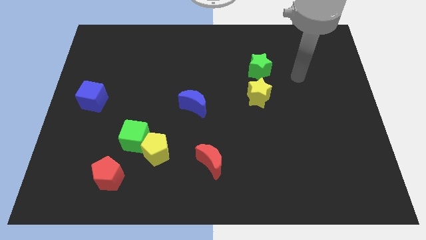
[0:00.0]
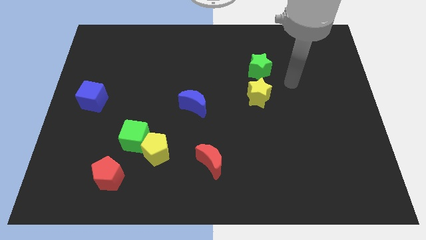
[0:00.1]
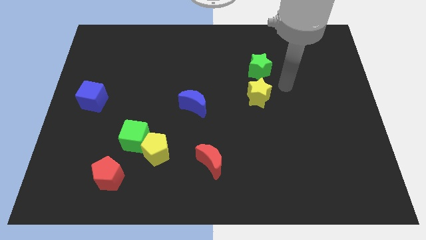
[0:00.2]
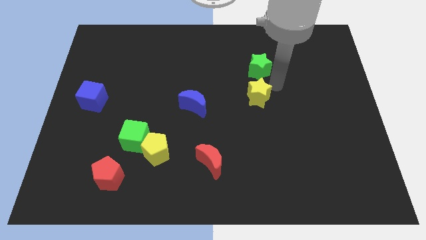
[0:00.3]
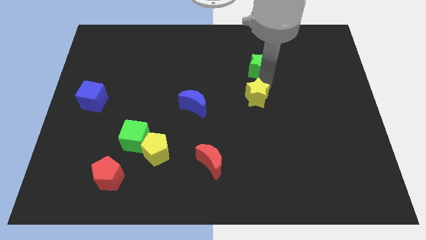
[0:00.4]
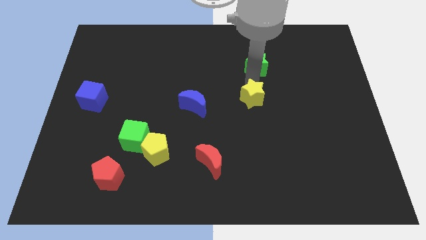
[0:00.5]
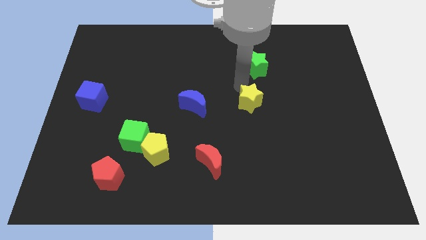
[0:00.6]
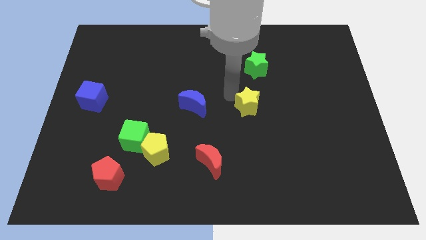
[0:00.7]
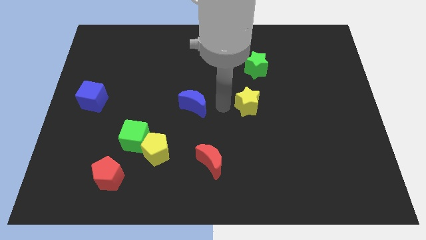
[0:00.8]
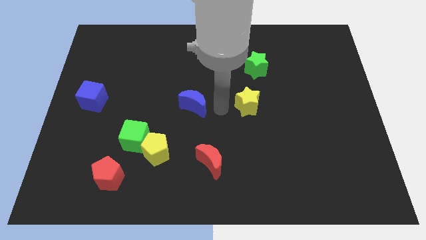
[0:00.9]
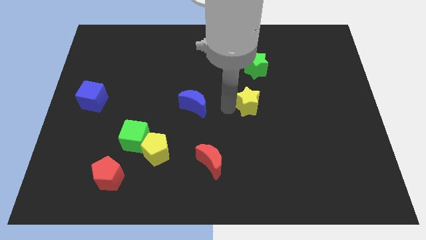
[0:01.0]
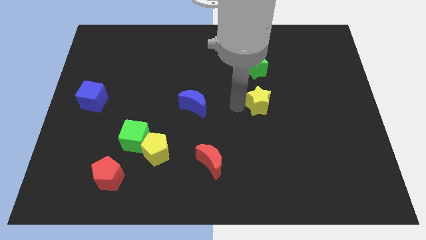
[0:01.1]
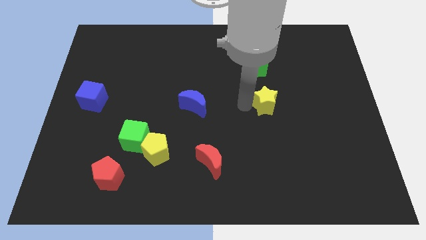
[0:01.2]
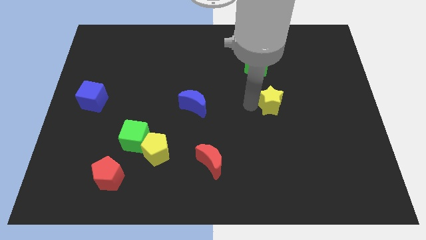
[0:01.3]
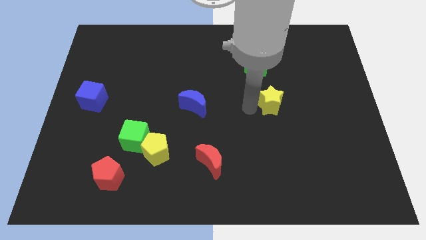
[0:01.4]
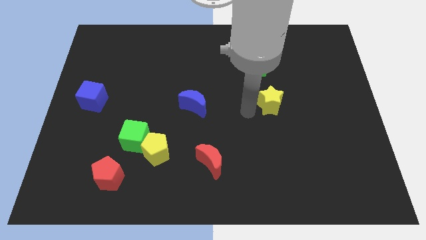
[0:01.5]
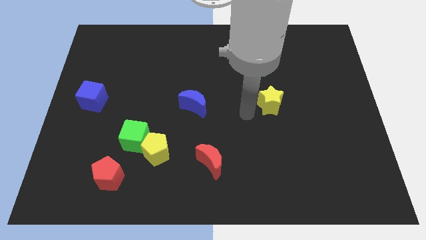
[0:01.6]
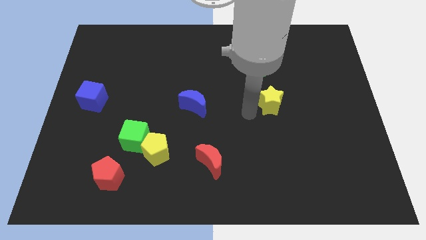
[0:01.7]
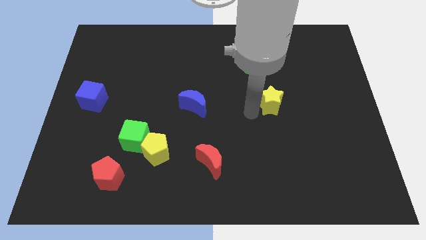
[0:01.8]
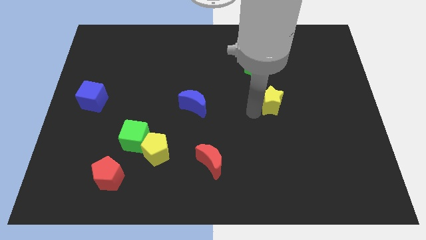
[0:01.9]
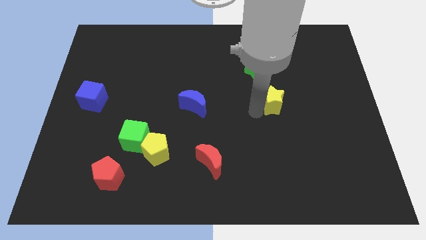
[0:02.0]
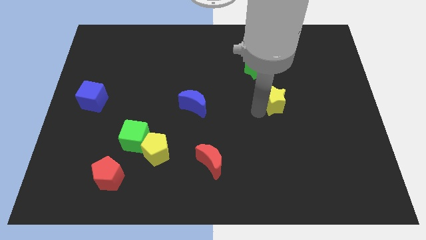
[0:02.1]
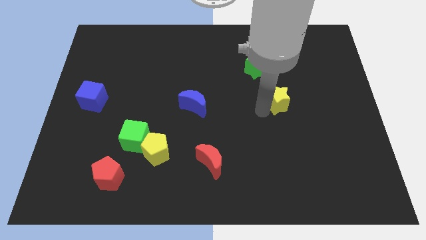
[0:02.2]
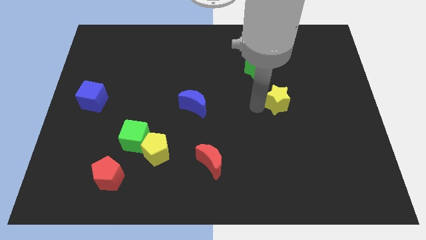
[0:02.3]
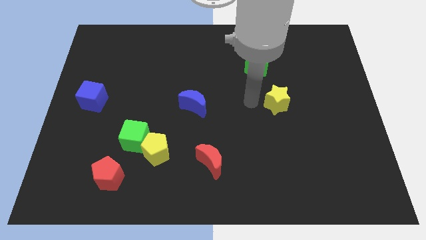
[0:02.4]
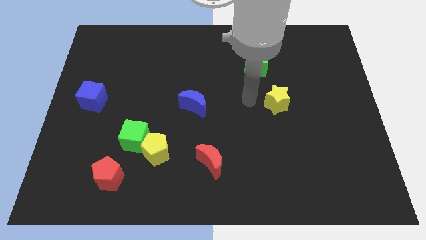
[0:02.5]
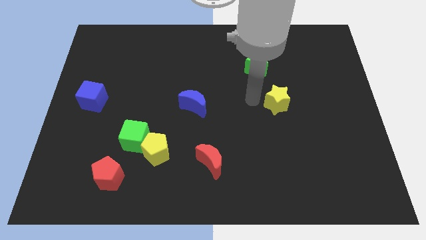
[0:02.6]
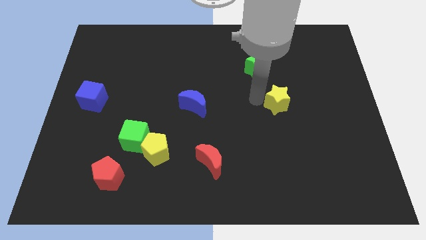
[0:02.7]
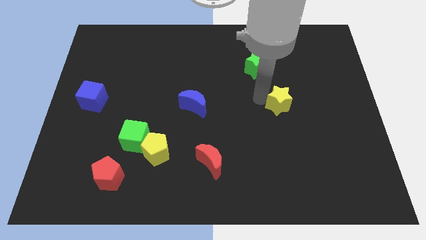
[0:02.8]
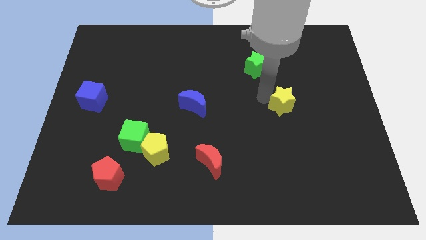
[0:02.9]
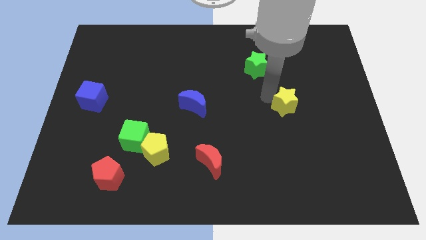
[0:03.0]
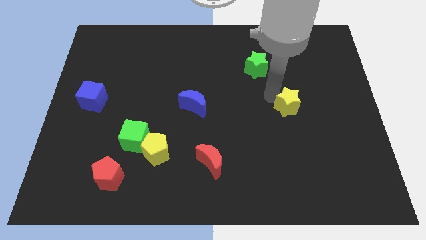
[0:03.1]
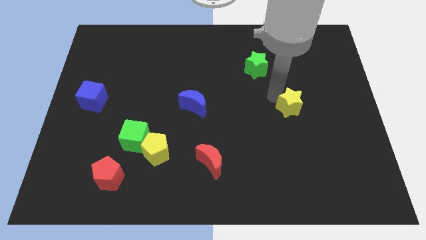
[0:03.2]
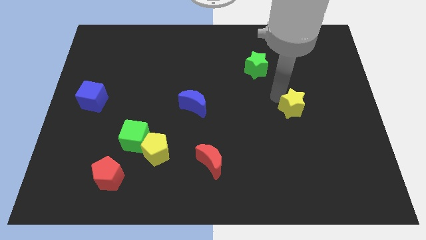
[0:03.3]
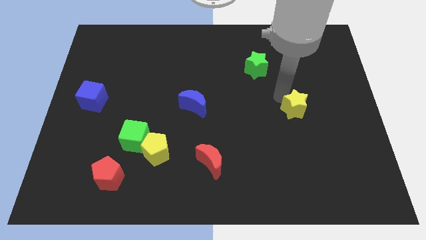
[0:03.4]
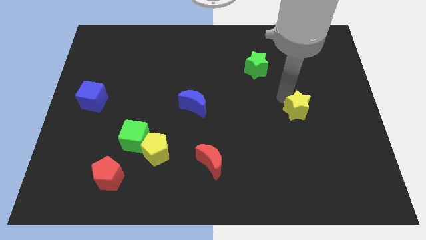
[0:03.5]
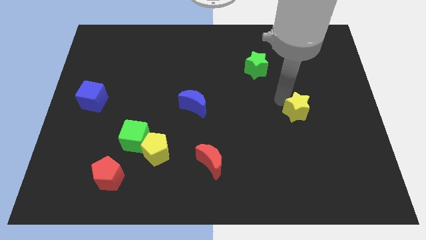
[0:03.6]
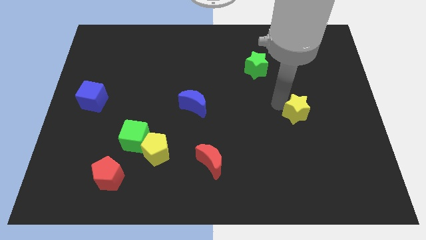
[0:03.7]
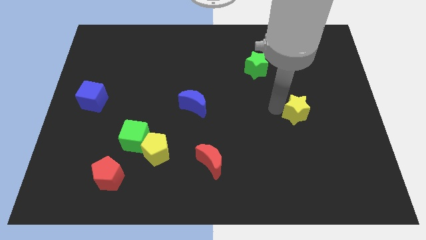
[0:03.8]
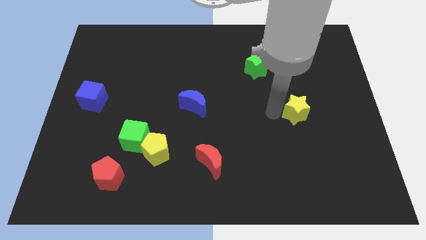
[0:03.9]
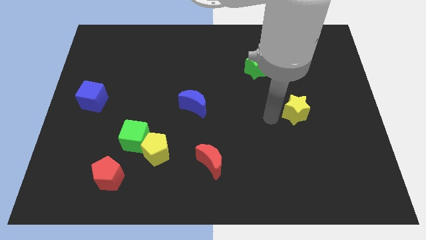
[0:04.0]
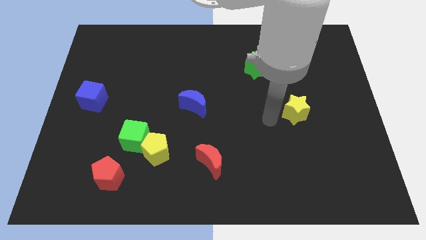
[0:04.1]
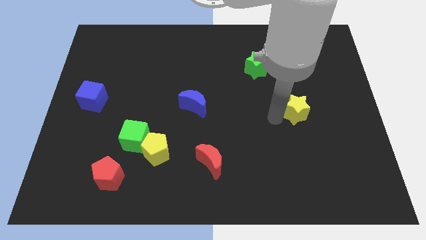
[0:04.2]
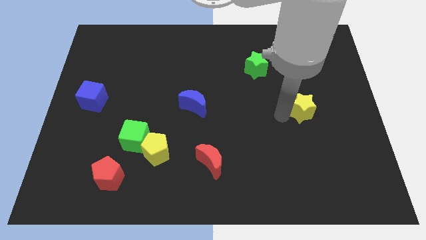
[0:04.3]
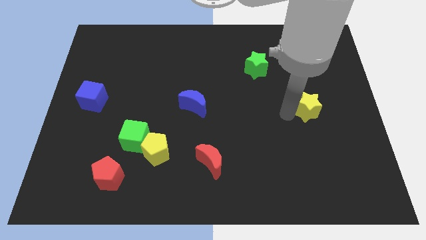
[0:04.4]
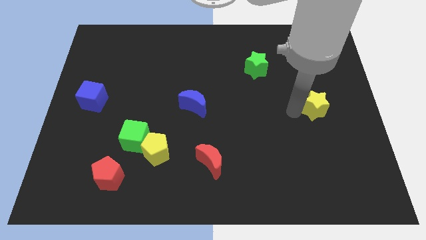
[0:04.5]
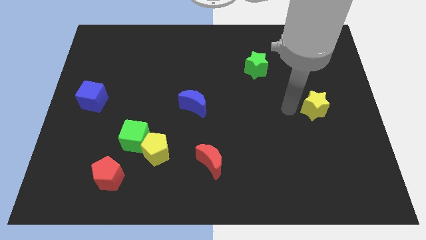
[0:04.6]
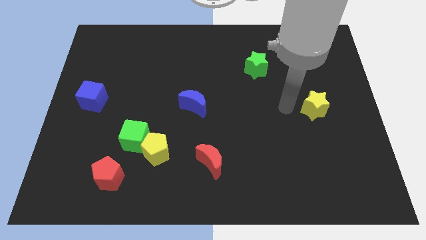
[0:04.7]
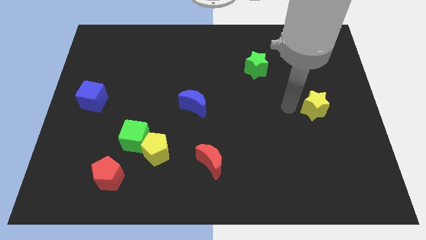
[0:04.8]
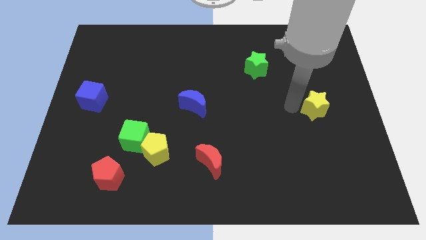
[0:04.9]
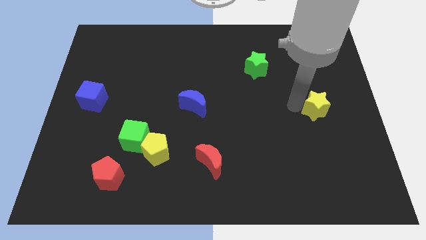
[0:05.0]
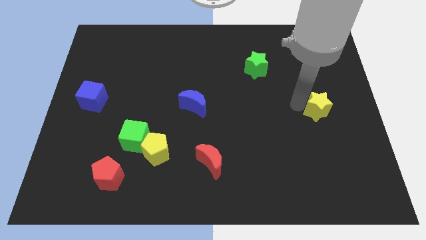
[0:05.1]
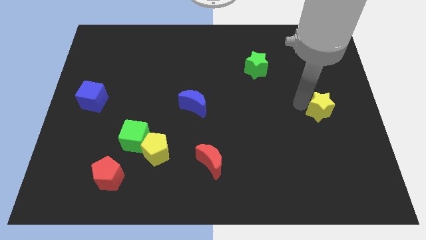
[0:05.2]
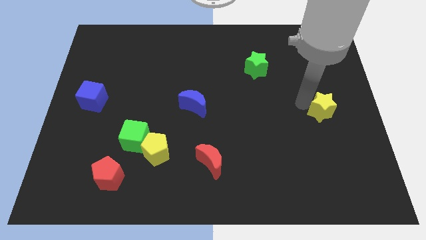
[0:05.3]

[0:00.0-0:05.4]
move the yellow star to the right side
